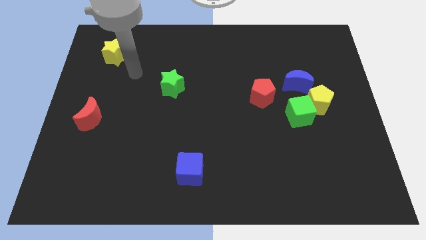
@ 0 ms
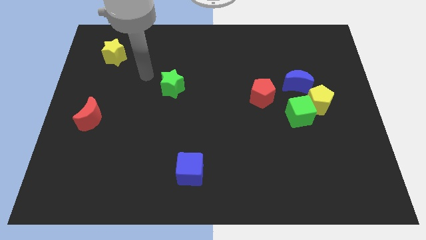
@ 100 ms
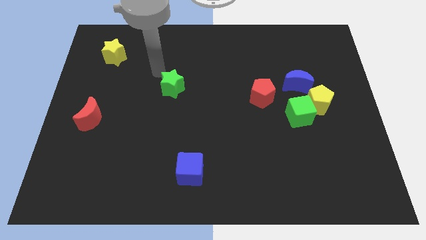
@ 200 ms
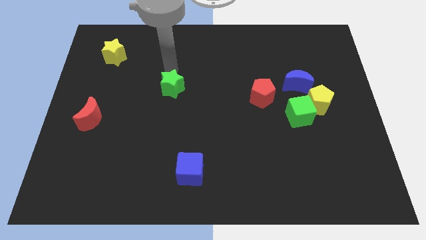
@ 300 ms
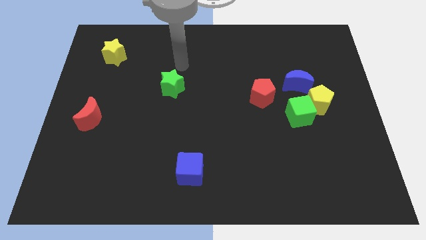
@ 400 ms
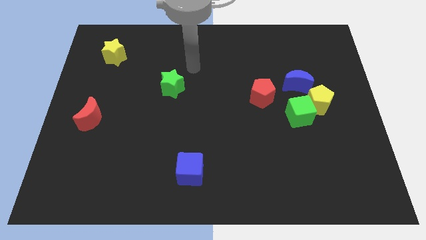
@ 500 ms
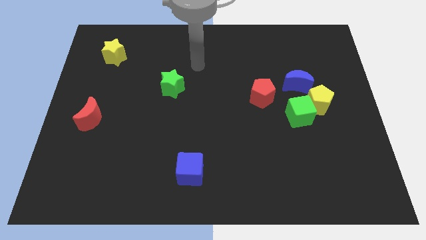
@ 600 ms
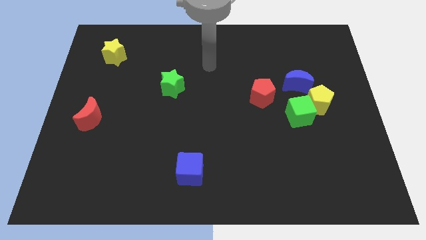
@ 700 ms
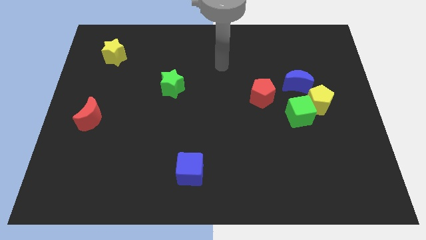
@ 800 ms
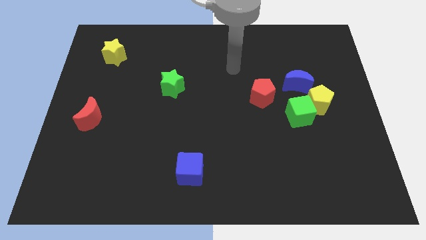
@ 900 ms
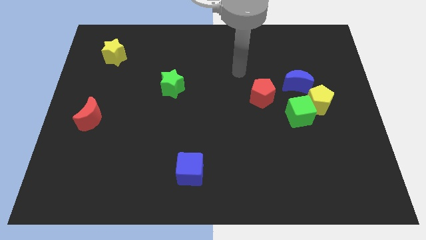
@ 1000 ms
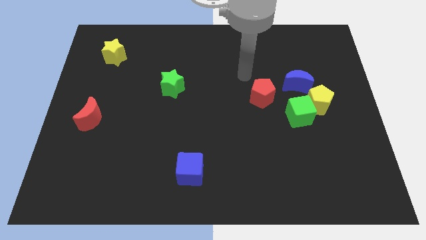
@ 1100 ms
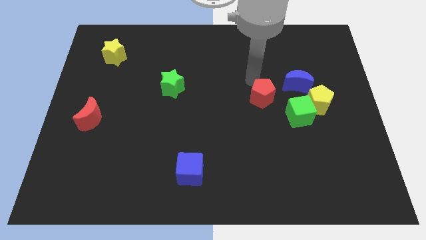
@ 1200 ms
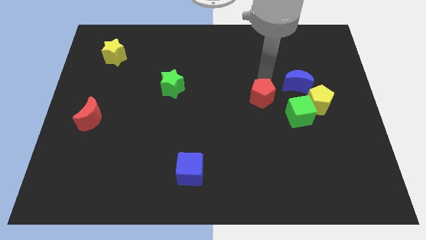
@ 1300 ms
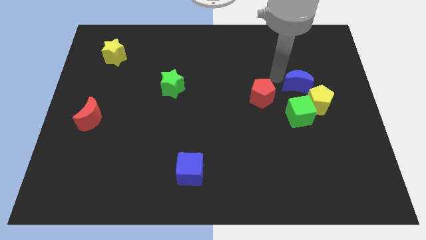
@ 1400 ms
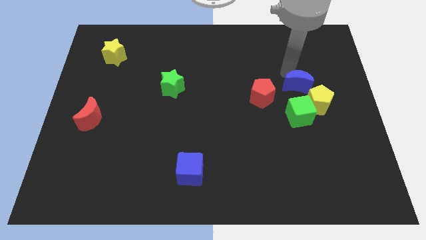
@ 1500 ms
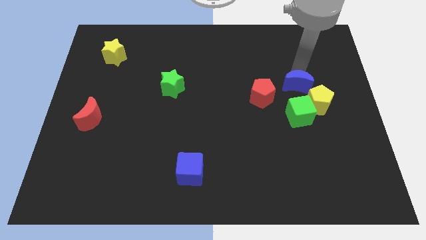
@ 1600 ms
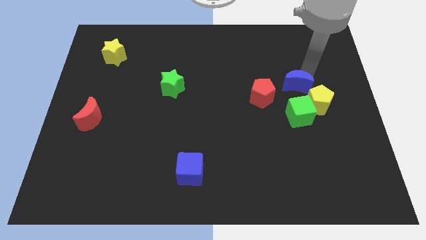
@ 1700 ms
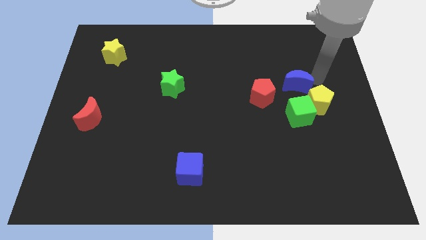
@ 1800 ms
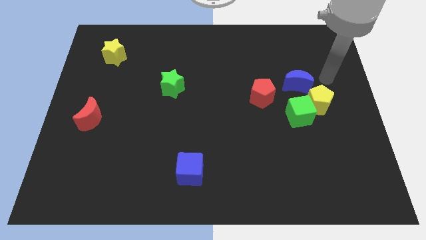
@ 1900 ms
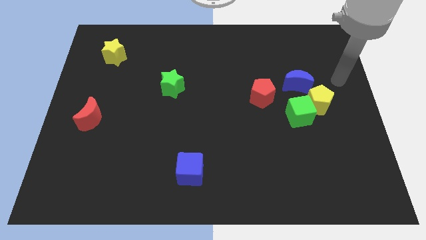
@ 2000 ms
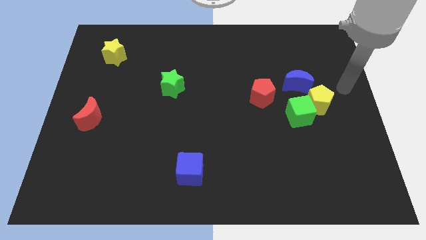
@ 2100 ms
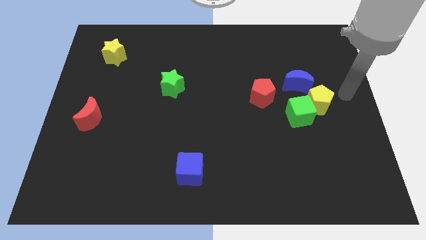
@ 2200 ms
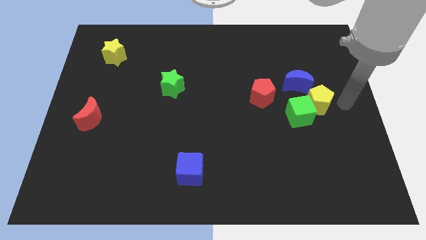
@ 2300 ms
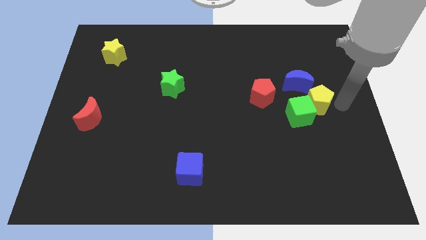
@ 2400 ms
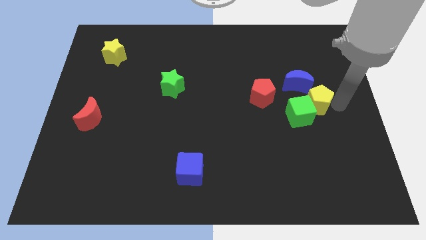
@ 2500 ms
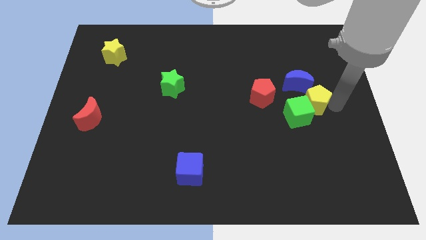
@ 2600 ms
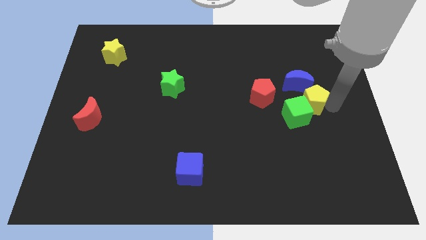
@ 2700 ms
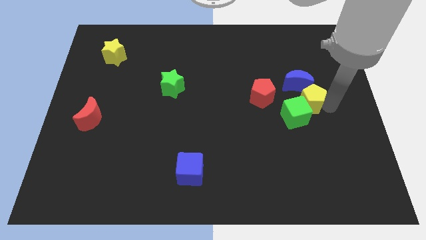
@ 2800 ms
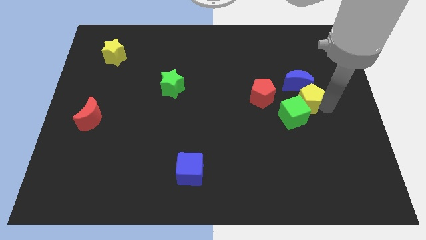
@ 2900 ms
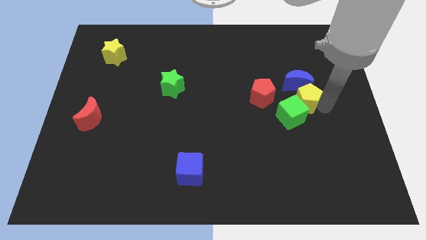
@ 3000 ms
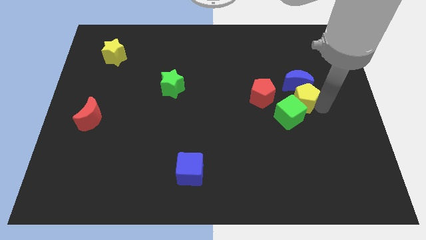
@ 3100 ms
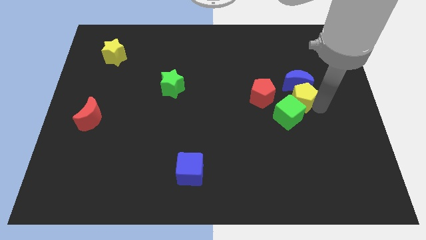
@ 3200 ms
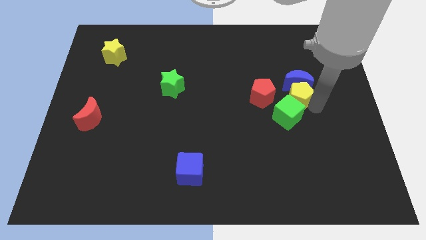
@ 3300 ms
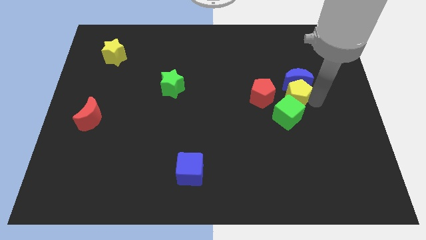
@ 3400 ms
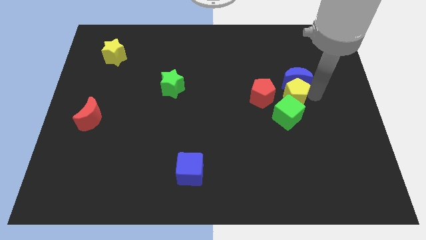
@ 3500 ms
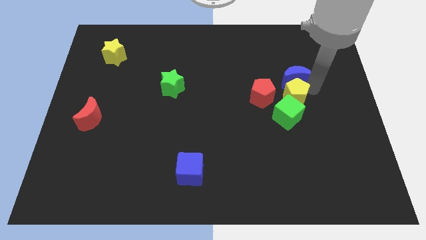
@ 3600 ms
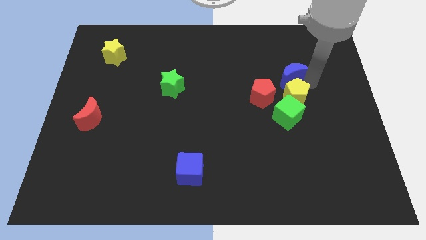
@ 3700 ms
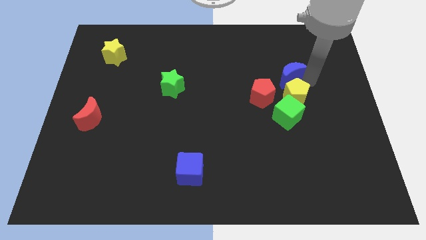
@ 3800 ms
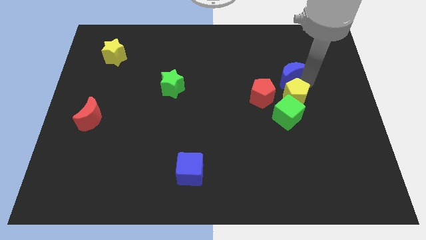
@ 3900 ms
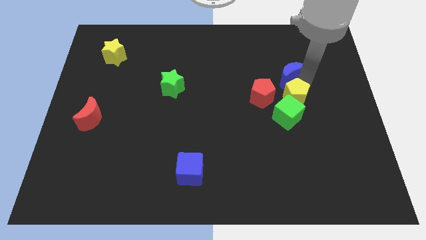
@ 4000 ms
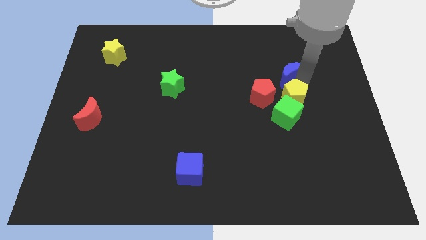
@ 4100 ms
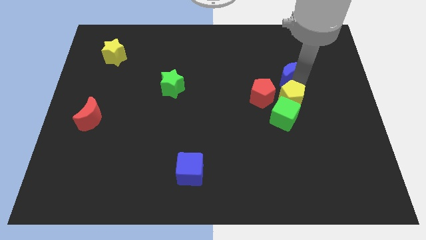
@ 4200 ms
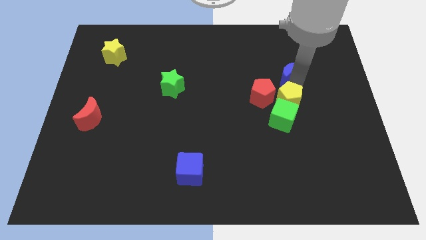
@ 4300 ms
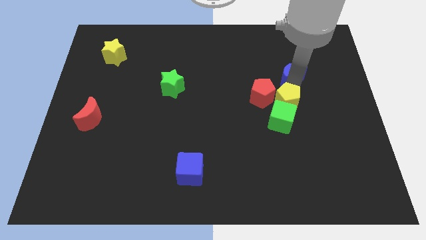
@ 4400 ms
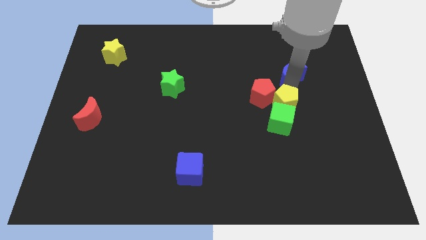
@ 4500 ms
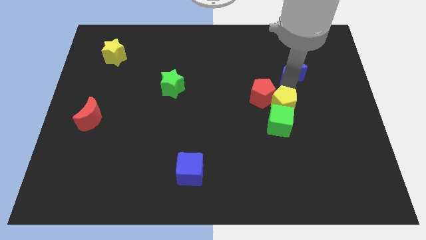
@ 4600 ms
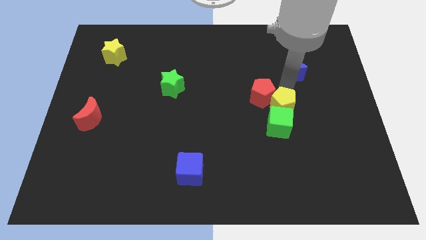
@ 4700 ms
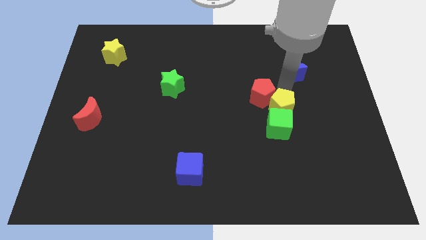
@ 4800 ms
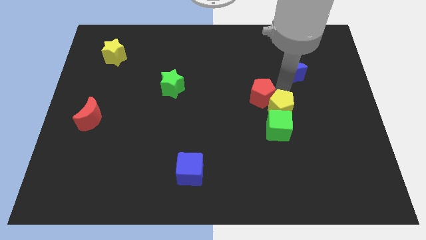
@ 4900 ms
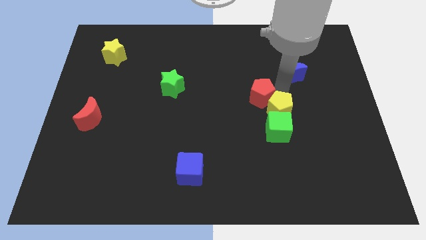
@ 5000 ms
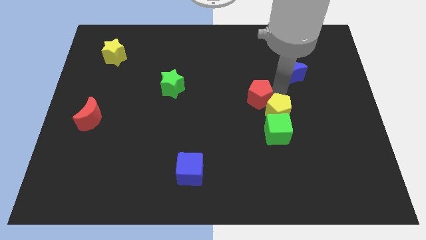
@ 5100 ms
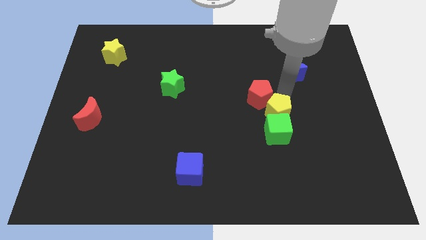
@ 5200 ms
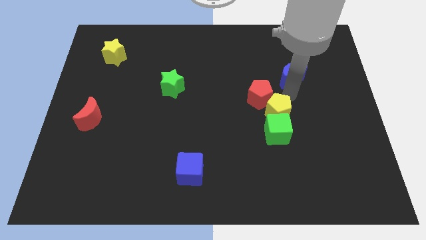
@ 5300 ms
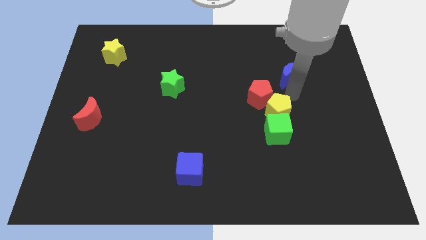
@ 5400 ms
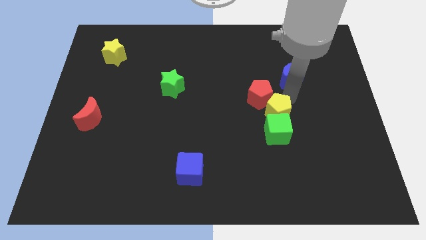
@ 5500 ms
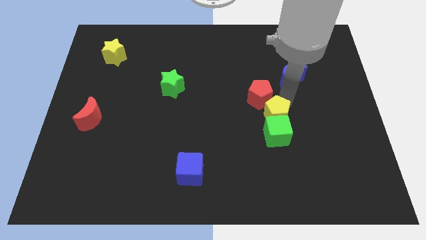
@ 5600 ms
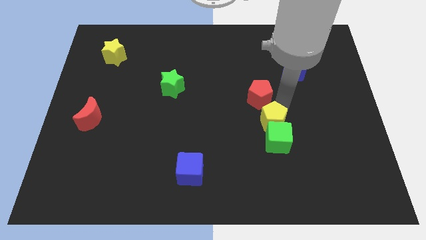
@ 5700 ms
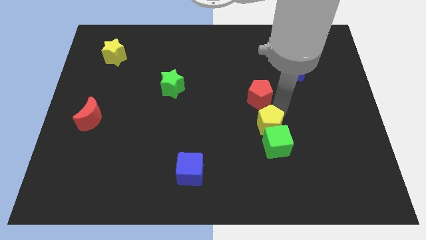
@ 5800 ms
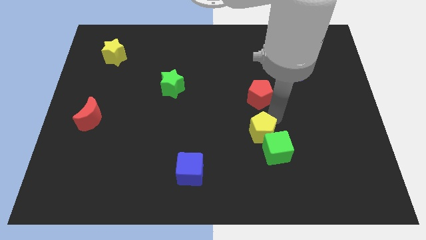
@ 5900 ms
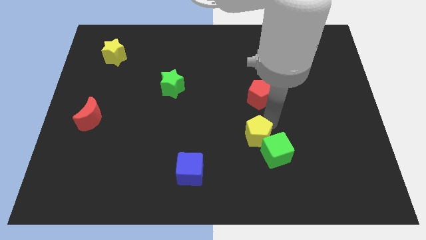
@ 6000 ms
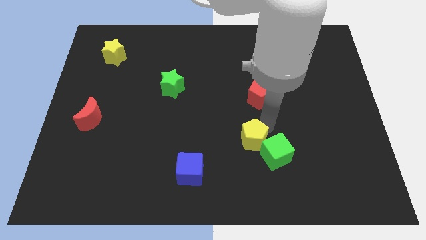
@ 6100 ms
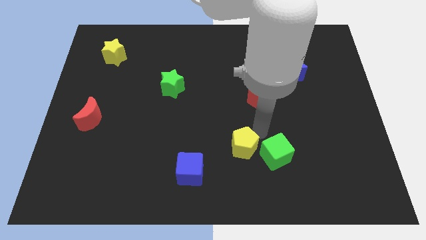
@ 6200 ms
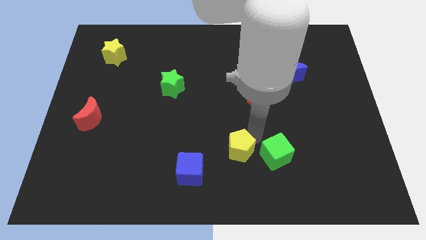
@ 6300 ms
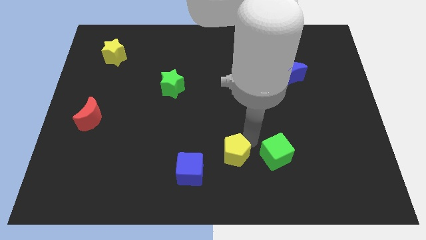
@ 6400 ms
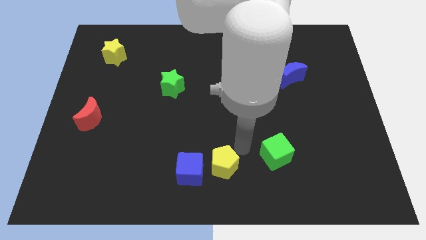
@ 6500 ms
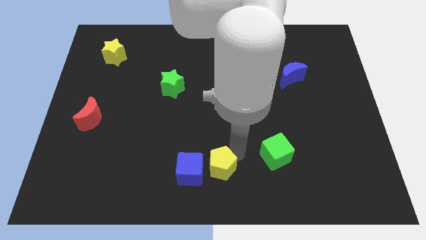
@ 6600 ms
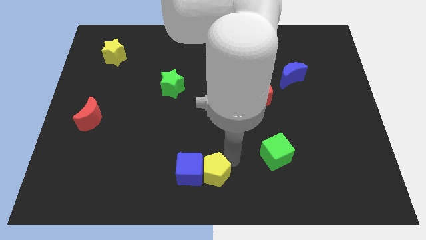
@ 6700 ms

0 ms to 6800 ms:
move the yellow pentagon close to the blue cube

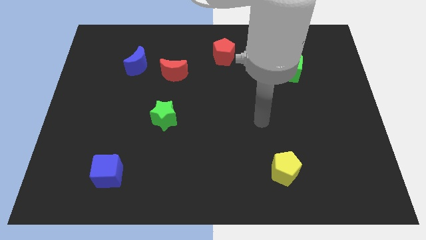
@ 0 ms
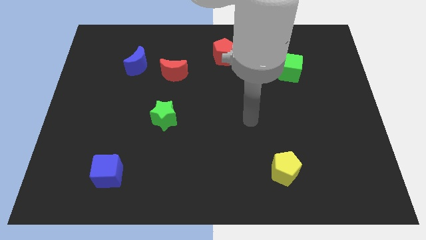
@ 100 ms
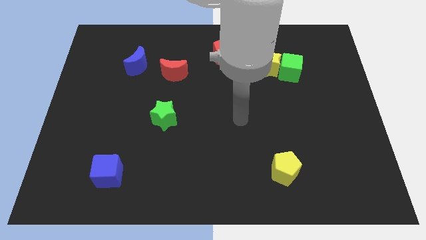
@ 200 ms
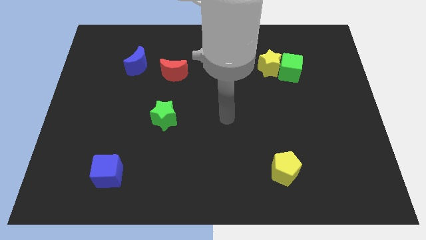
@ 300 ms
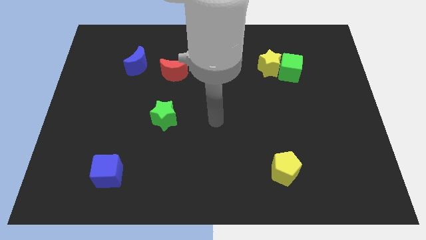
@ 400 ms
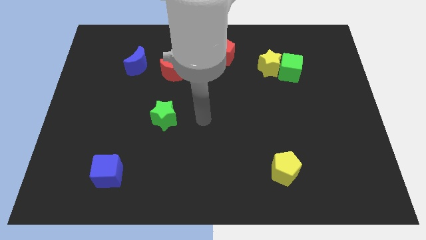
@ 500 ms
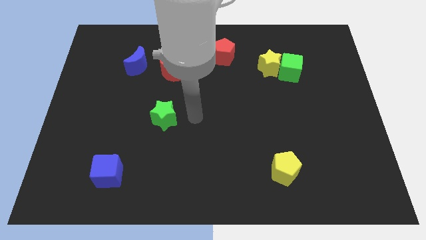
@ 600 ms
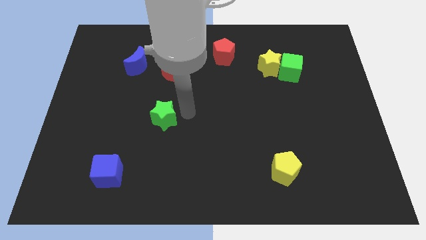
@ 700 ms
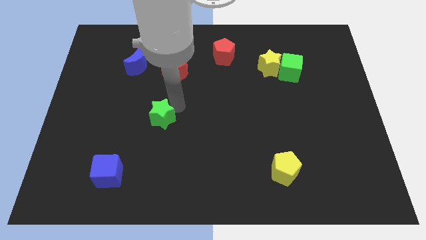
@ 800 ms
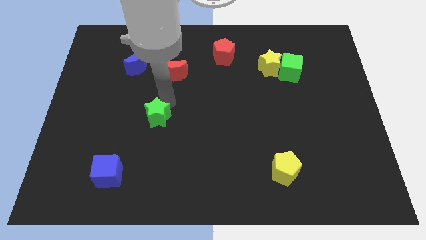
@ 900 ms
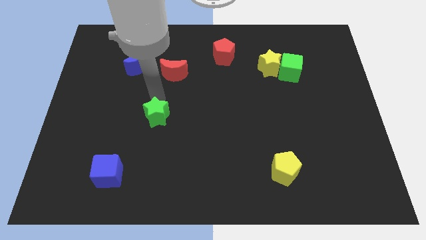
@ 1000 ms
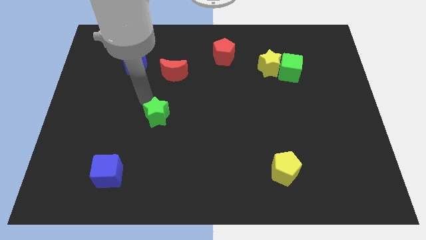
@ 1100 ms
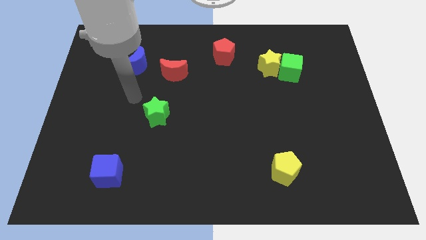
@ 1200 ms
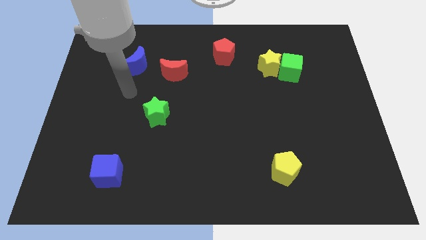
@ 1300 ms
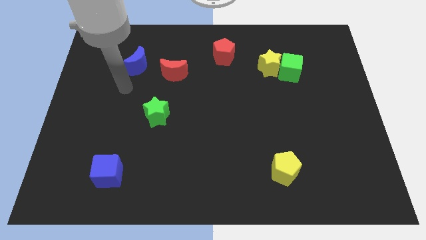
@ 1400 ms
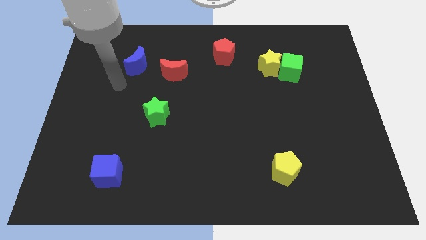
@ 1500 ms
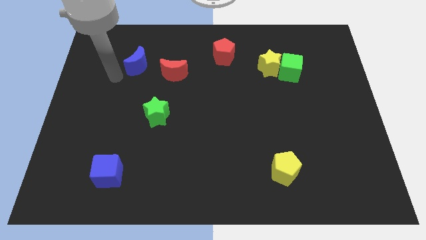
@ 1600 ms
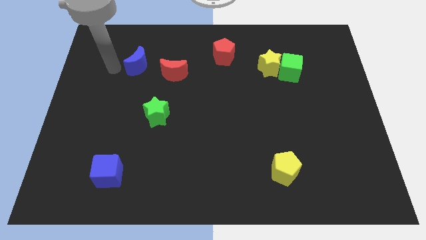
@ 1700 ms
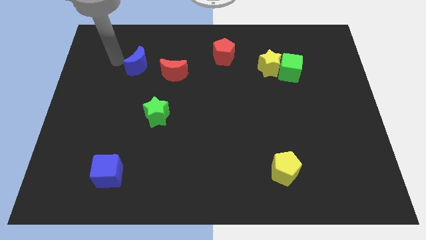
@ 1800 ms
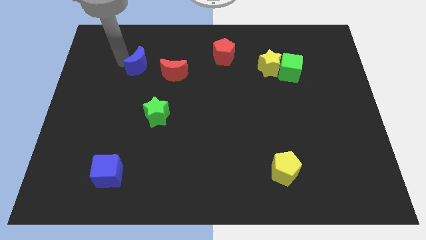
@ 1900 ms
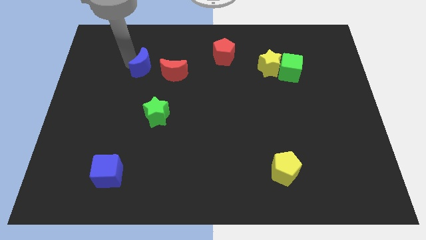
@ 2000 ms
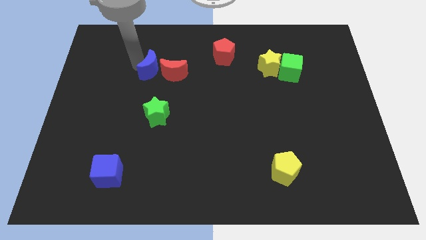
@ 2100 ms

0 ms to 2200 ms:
push the blue moon to the red moon
